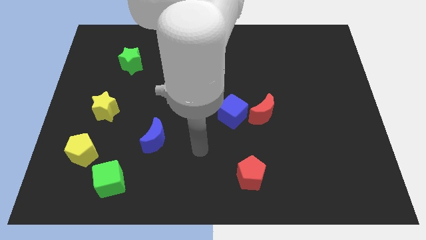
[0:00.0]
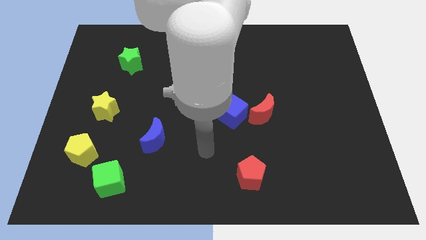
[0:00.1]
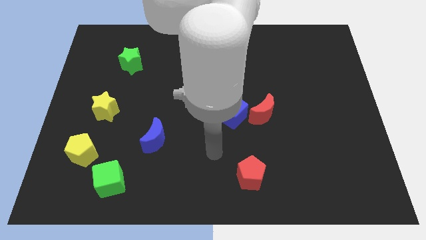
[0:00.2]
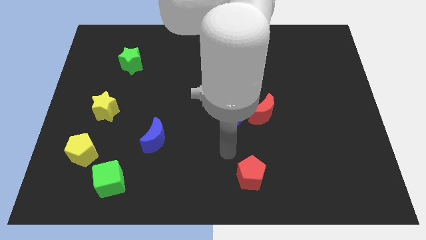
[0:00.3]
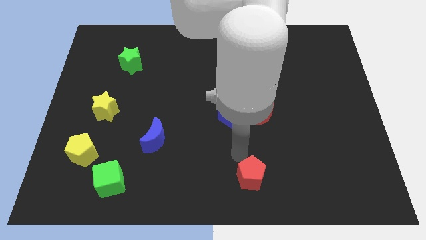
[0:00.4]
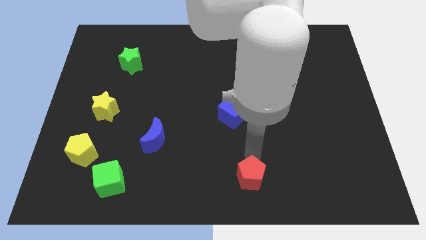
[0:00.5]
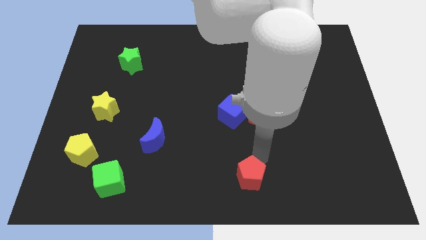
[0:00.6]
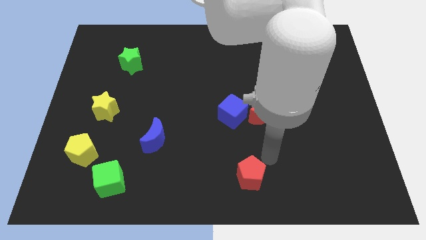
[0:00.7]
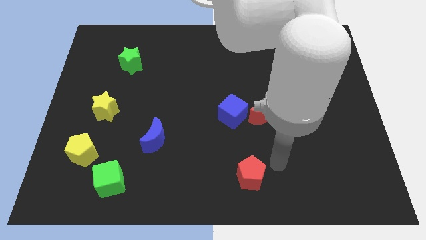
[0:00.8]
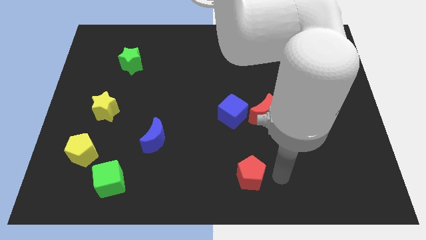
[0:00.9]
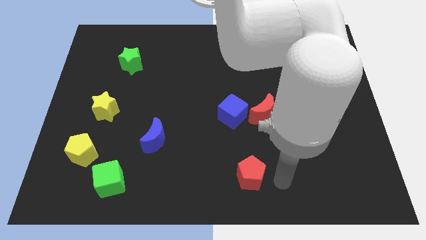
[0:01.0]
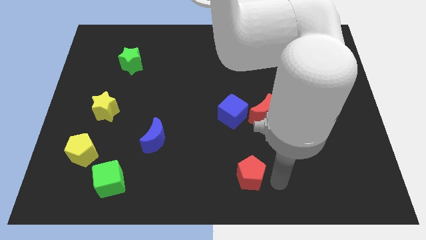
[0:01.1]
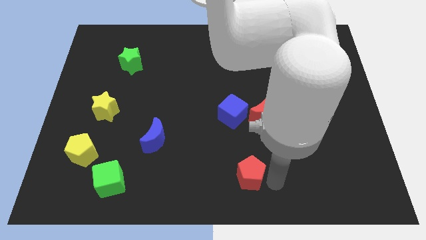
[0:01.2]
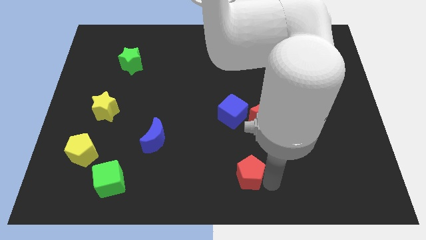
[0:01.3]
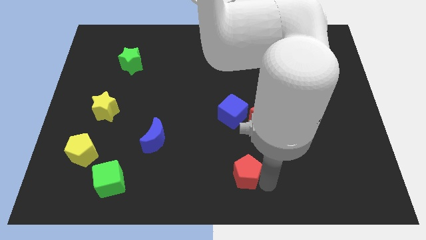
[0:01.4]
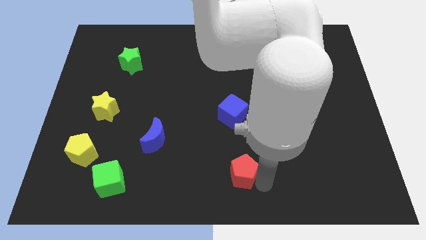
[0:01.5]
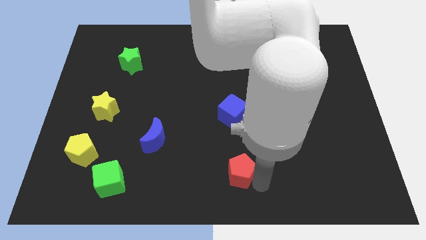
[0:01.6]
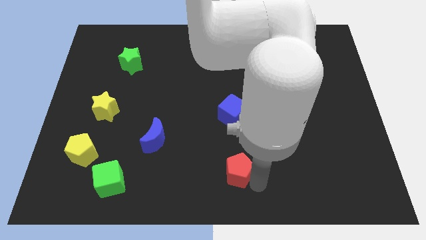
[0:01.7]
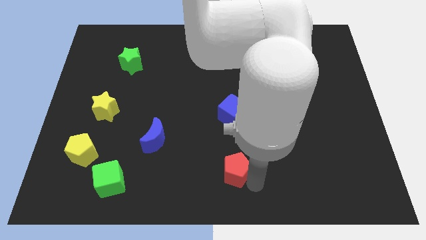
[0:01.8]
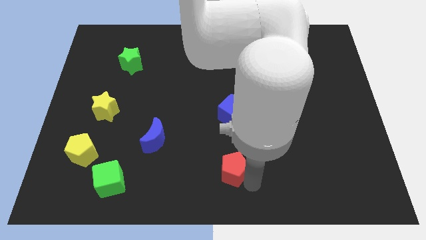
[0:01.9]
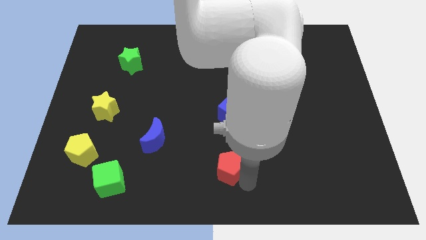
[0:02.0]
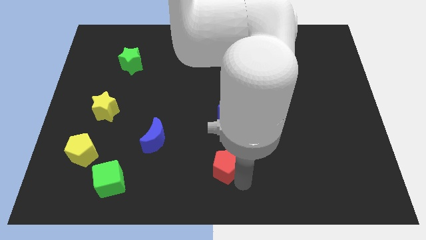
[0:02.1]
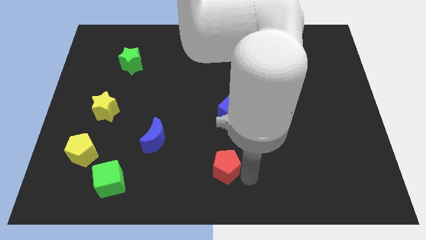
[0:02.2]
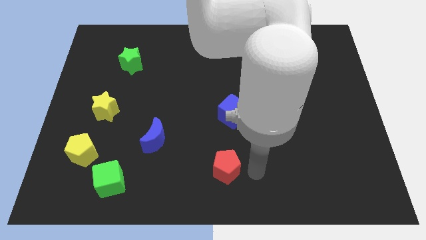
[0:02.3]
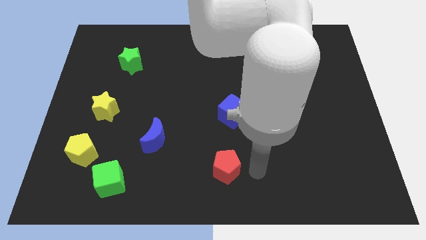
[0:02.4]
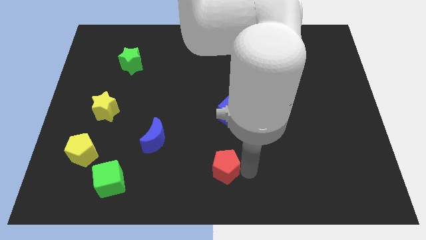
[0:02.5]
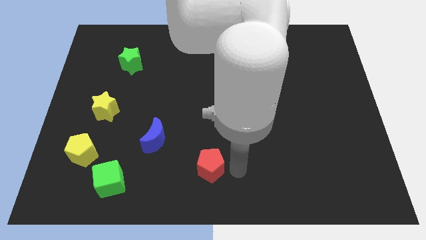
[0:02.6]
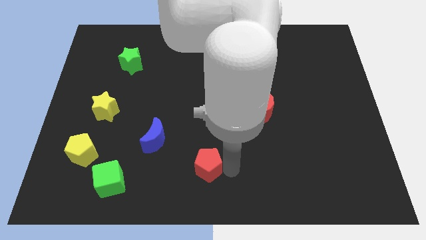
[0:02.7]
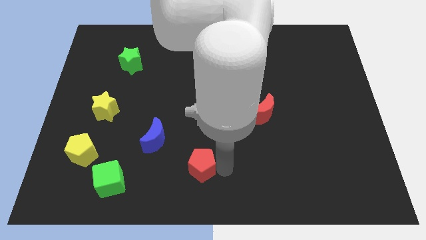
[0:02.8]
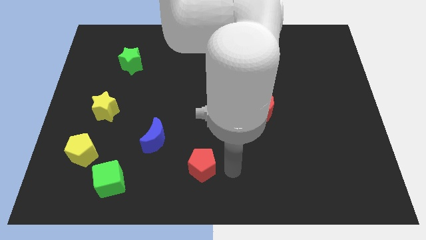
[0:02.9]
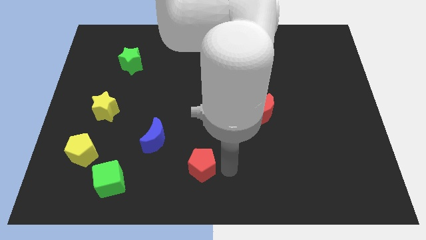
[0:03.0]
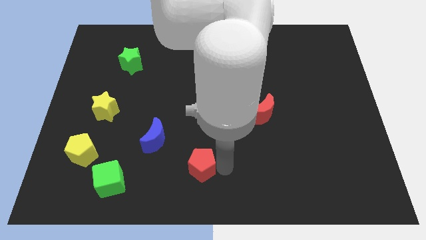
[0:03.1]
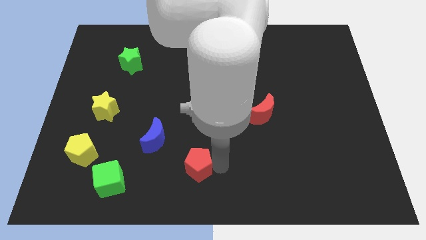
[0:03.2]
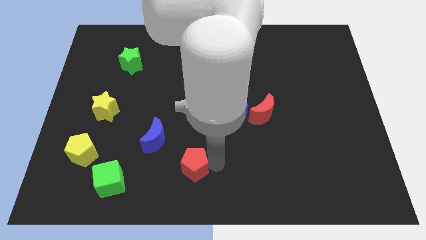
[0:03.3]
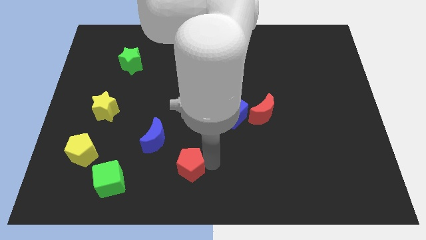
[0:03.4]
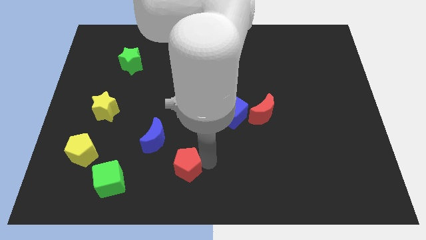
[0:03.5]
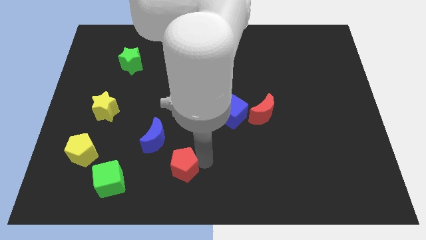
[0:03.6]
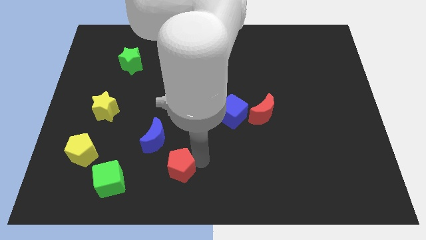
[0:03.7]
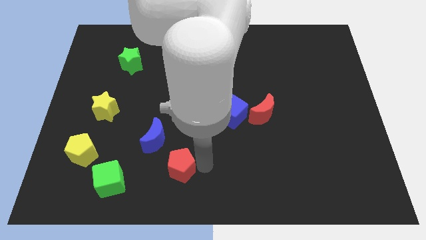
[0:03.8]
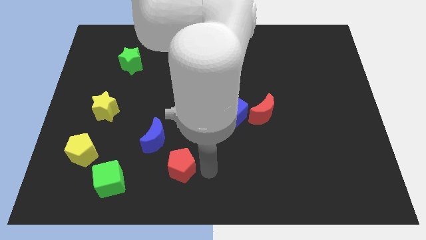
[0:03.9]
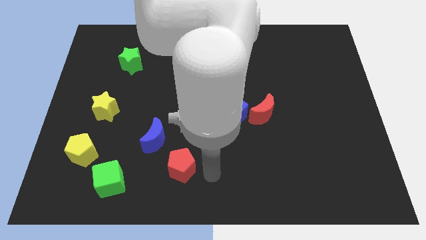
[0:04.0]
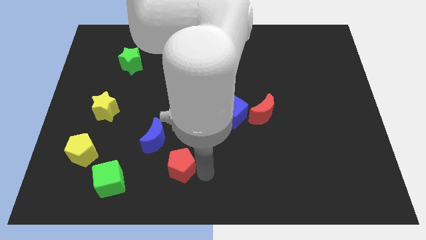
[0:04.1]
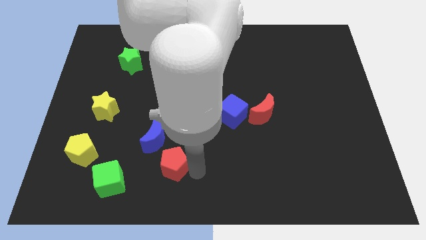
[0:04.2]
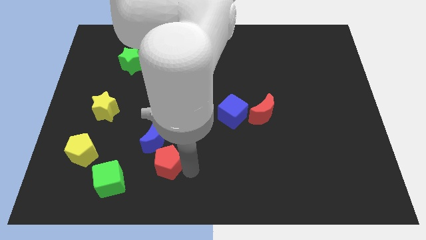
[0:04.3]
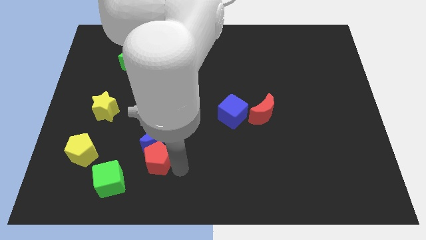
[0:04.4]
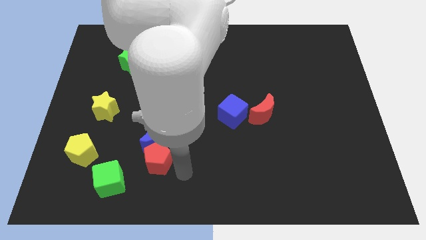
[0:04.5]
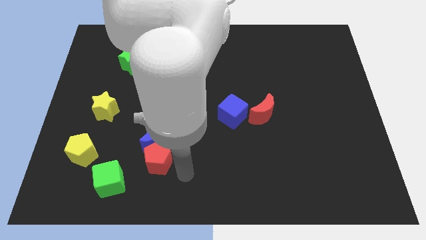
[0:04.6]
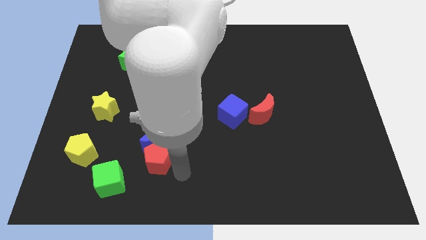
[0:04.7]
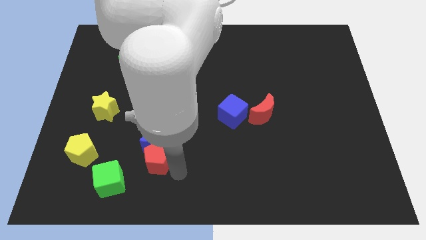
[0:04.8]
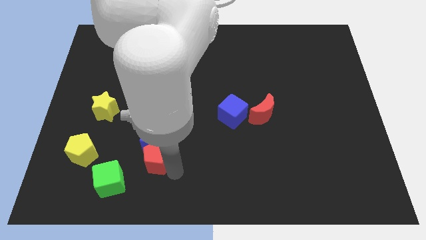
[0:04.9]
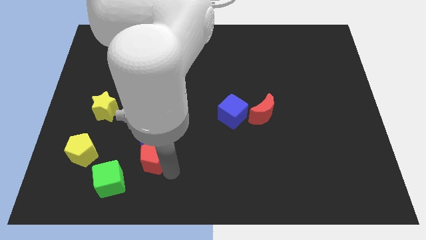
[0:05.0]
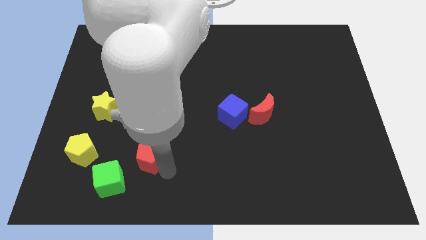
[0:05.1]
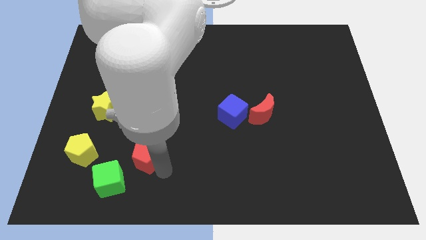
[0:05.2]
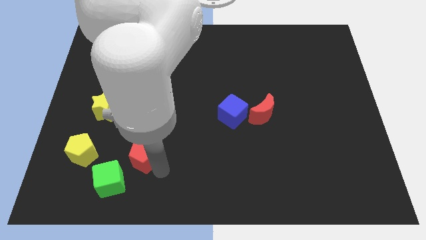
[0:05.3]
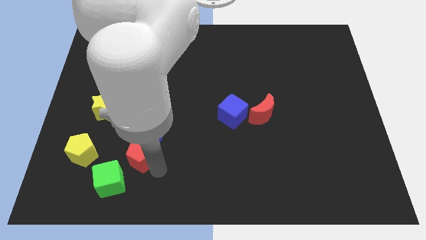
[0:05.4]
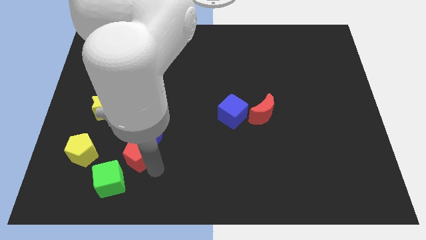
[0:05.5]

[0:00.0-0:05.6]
move the red pentagon to the top of the green cube

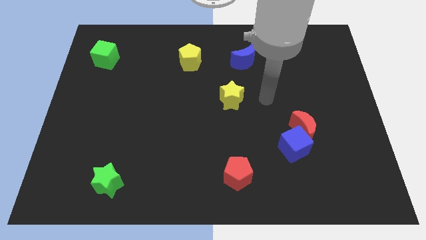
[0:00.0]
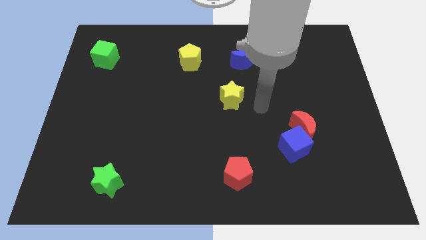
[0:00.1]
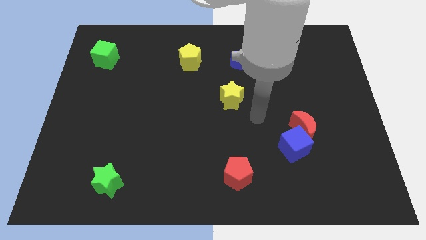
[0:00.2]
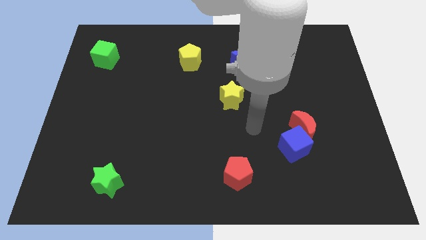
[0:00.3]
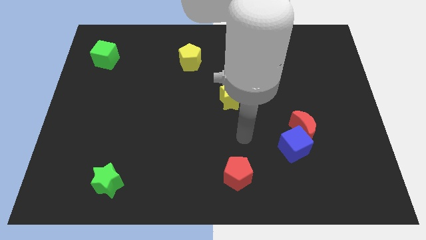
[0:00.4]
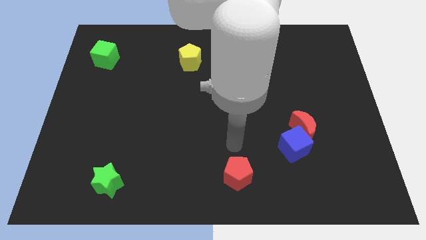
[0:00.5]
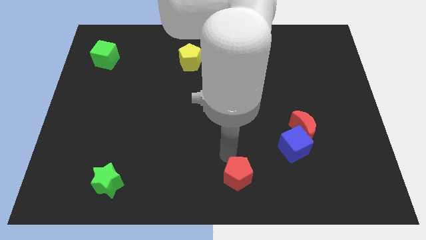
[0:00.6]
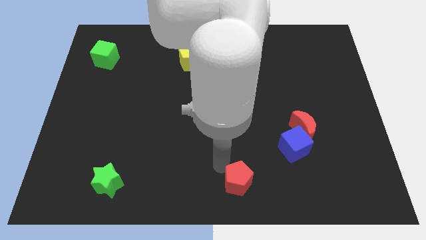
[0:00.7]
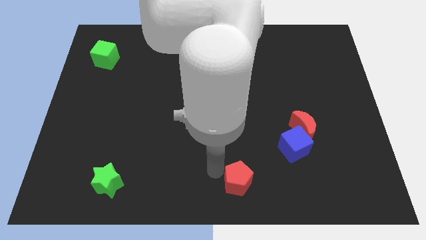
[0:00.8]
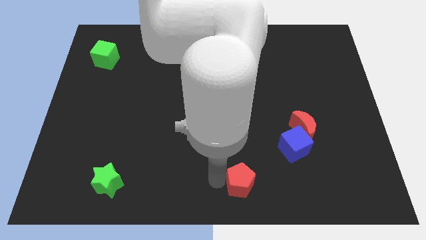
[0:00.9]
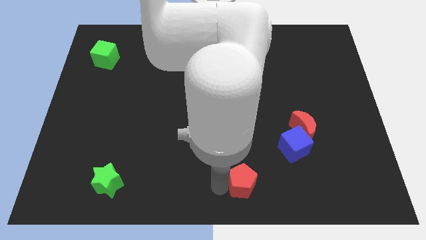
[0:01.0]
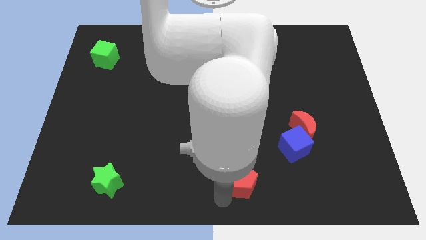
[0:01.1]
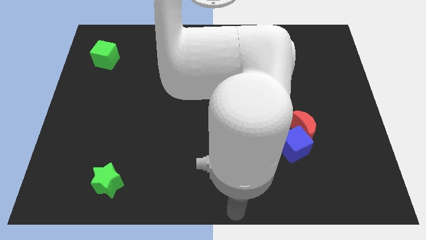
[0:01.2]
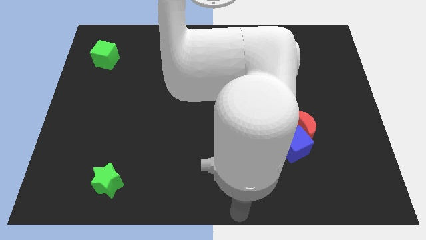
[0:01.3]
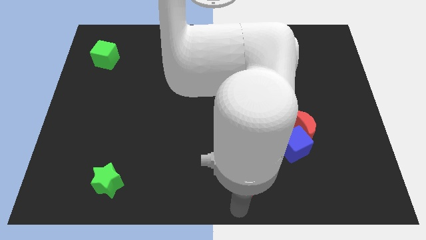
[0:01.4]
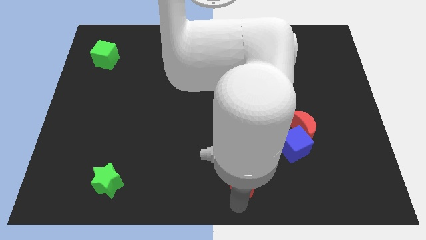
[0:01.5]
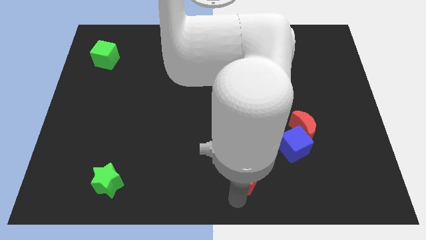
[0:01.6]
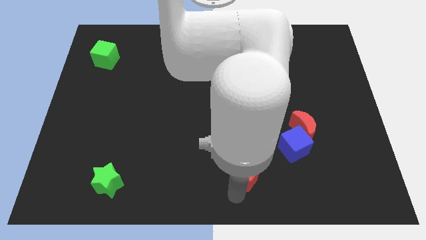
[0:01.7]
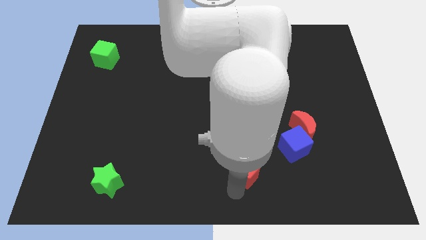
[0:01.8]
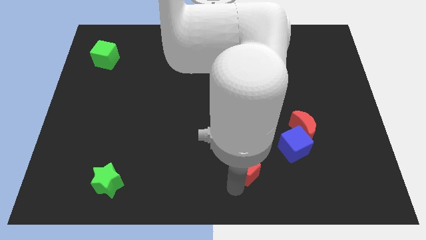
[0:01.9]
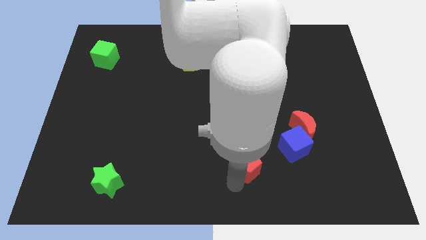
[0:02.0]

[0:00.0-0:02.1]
push the red pentagon left of the blue cube
